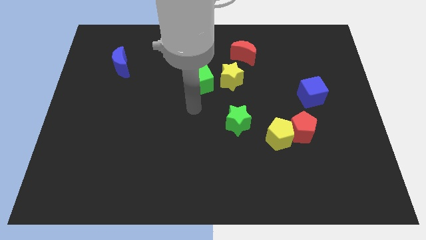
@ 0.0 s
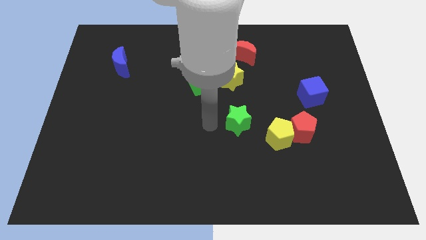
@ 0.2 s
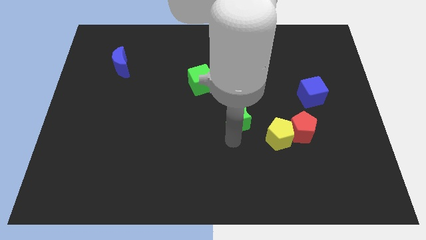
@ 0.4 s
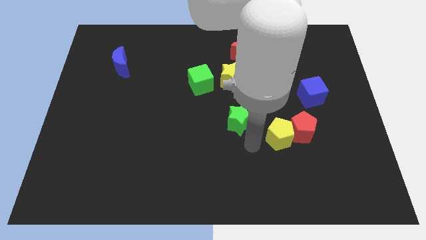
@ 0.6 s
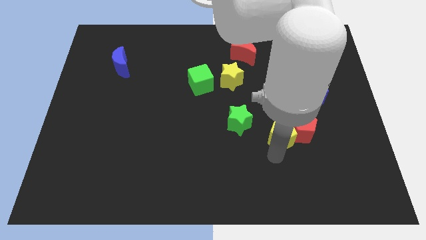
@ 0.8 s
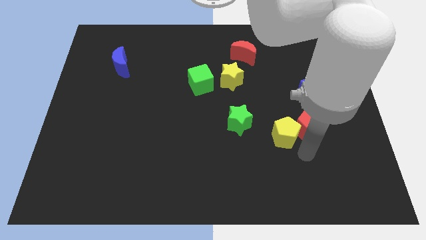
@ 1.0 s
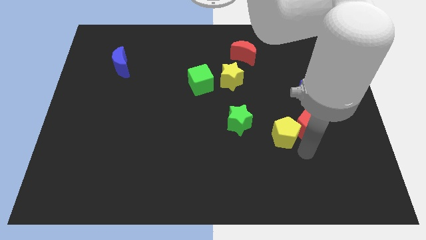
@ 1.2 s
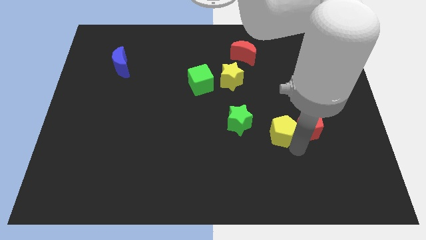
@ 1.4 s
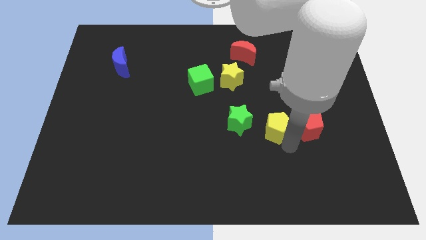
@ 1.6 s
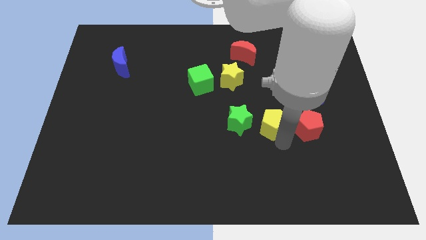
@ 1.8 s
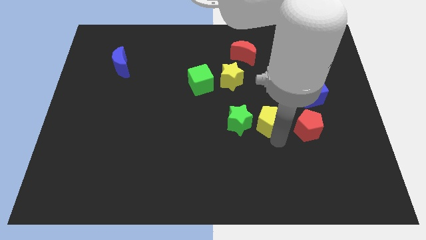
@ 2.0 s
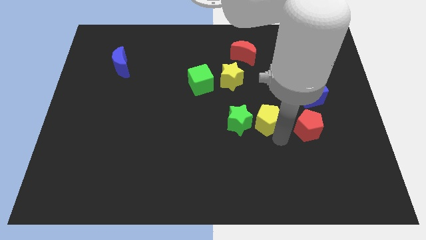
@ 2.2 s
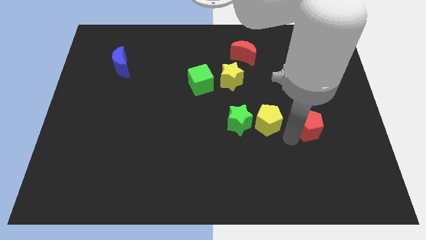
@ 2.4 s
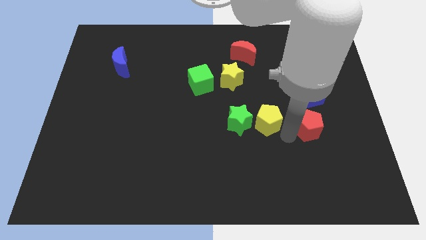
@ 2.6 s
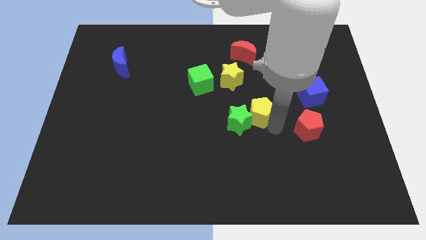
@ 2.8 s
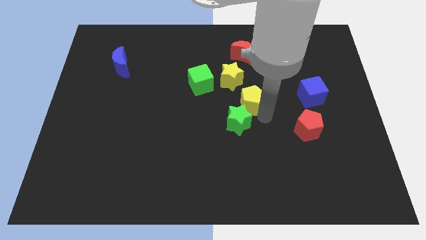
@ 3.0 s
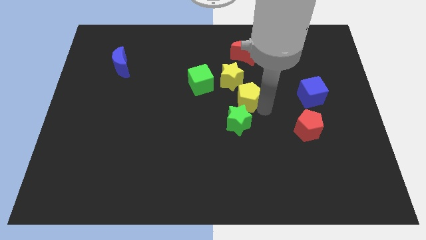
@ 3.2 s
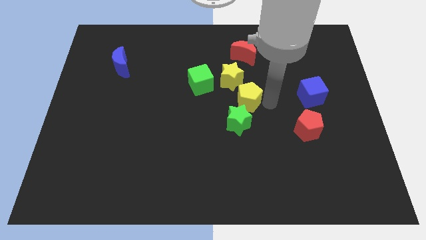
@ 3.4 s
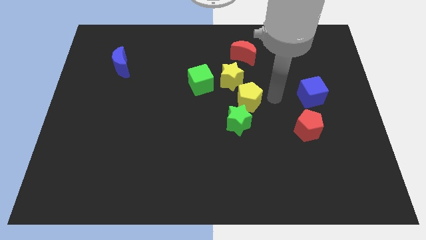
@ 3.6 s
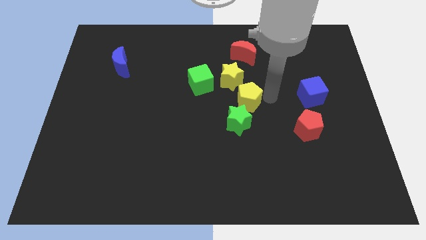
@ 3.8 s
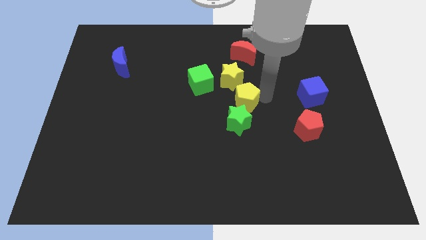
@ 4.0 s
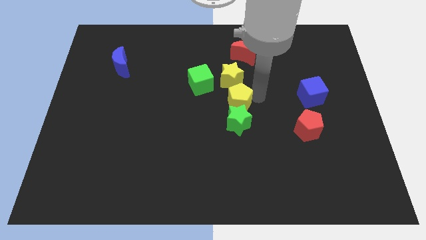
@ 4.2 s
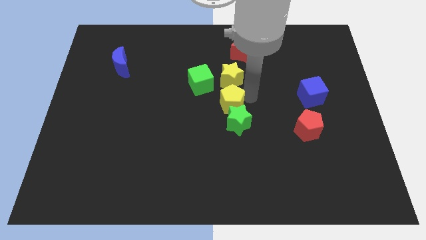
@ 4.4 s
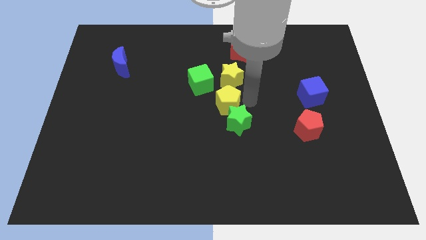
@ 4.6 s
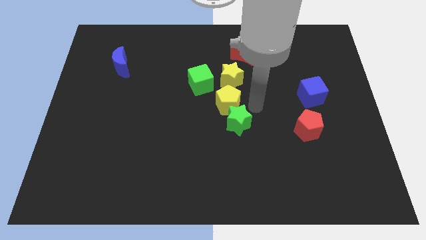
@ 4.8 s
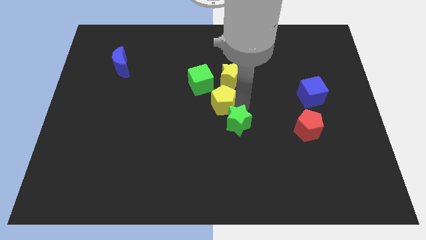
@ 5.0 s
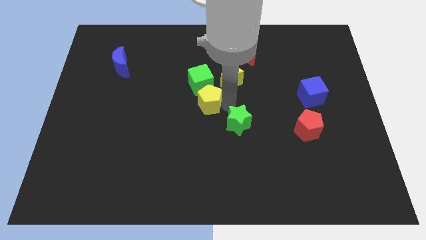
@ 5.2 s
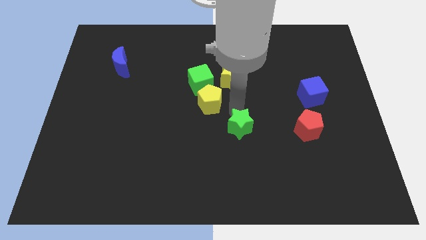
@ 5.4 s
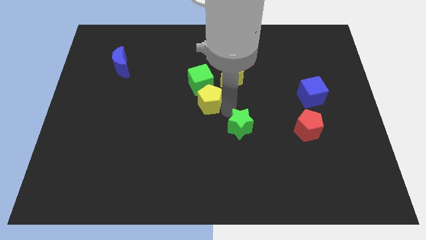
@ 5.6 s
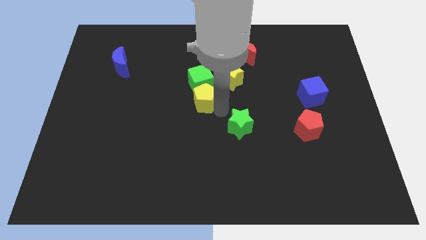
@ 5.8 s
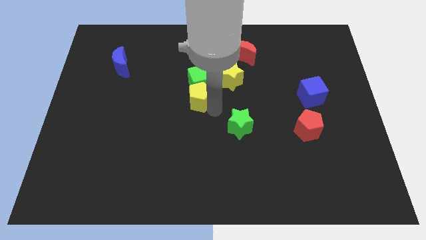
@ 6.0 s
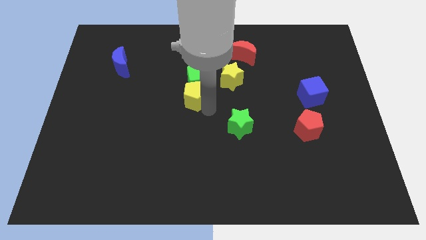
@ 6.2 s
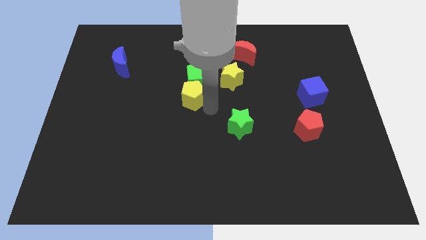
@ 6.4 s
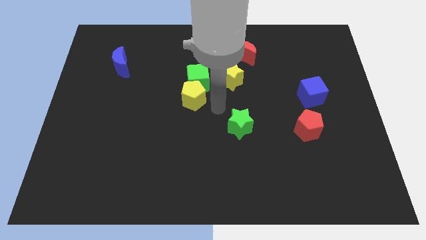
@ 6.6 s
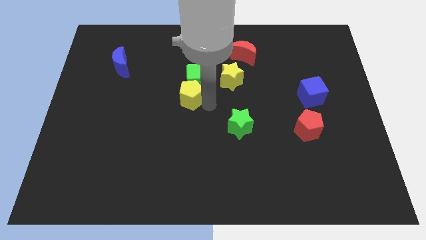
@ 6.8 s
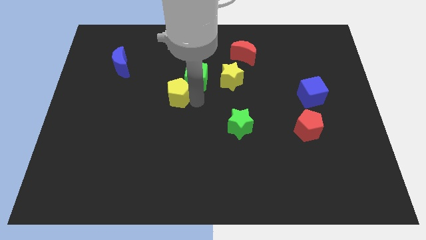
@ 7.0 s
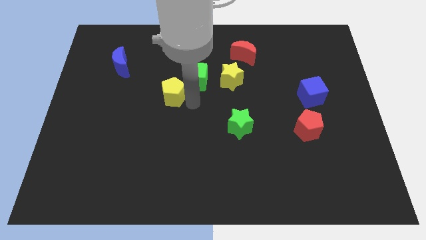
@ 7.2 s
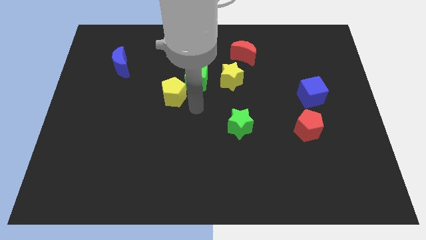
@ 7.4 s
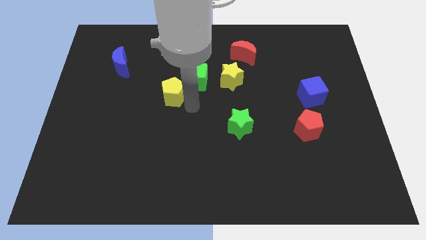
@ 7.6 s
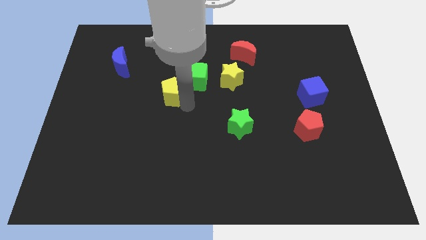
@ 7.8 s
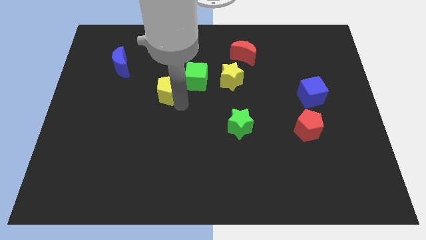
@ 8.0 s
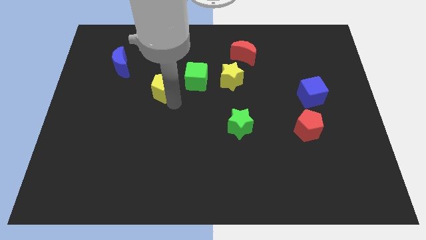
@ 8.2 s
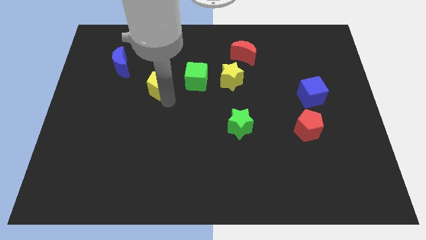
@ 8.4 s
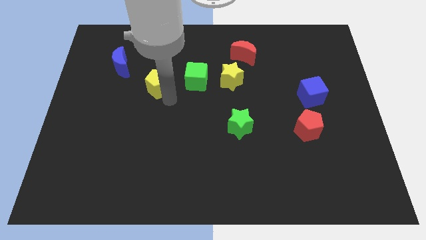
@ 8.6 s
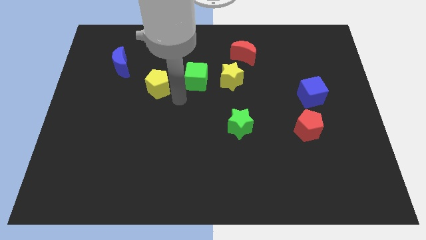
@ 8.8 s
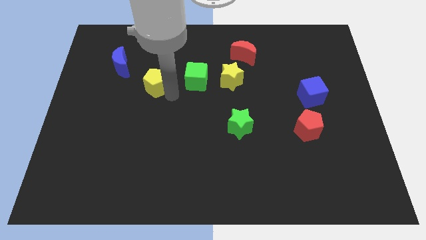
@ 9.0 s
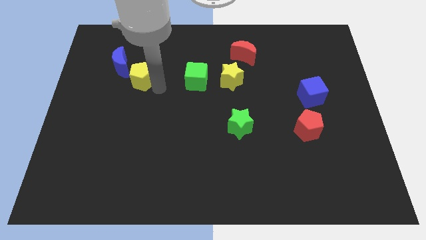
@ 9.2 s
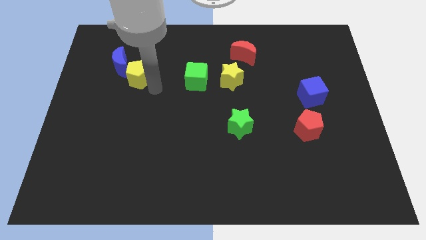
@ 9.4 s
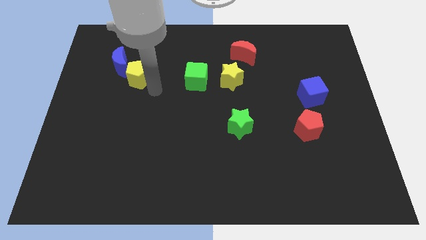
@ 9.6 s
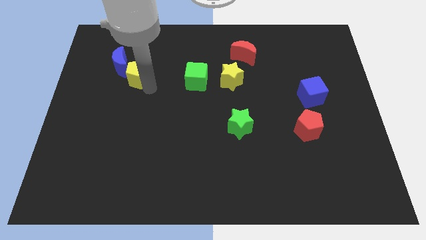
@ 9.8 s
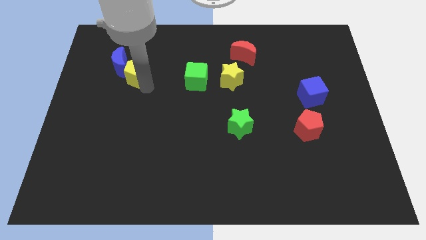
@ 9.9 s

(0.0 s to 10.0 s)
move the yellow pentagon close to the blue moon

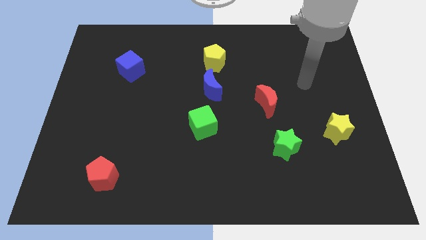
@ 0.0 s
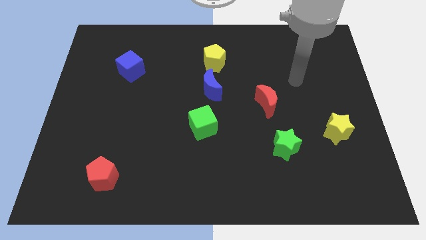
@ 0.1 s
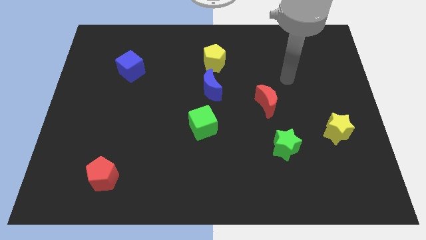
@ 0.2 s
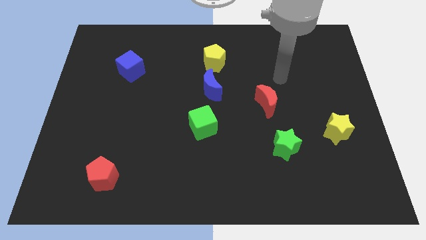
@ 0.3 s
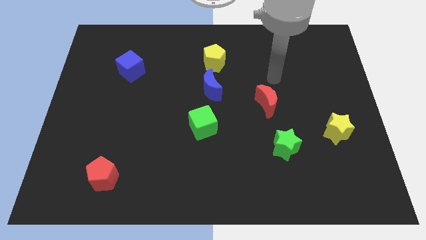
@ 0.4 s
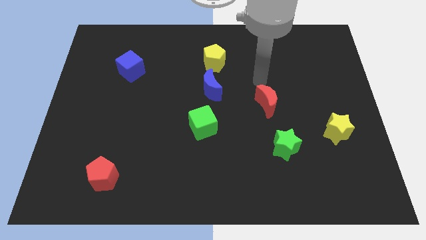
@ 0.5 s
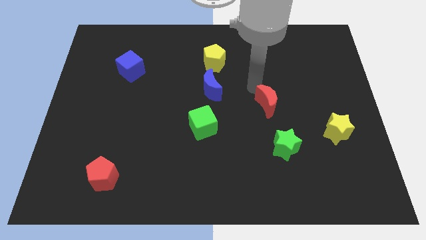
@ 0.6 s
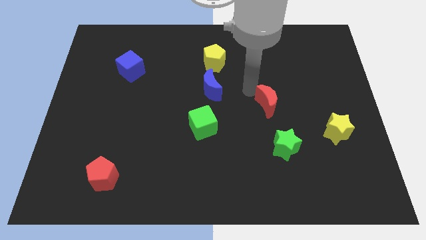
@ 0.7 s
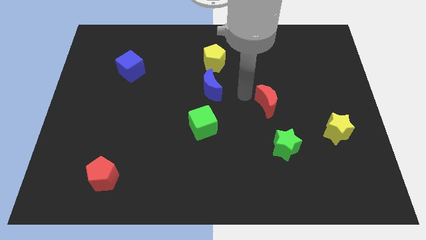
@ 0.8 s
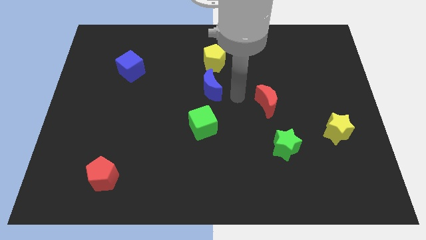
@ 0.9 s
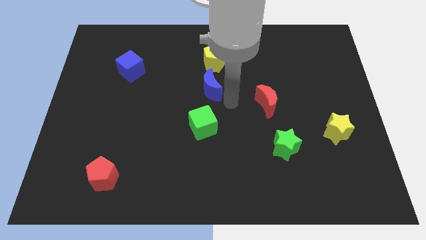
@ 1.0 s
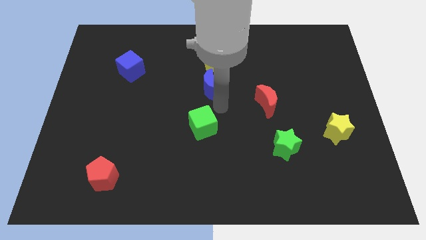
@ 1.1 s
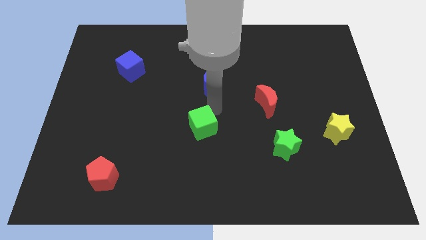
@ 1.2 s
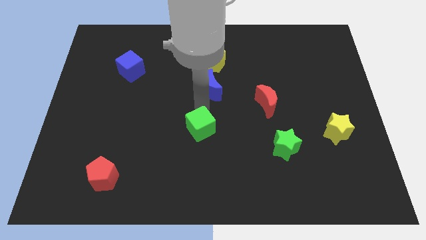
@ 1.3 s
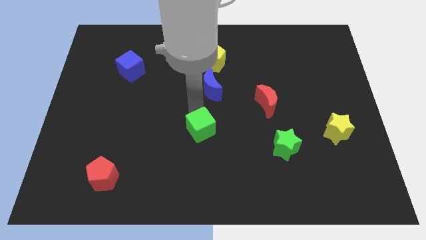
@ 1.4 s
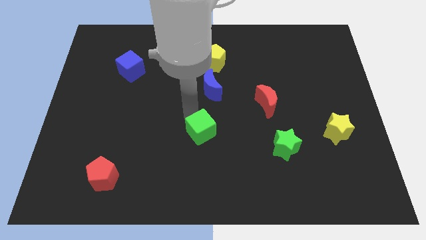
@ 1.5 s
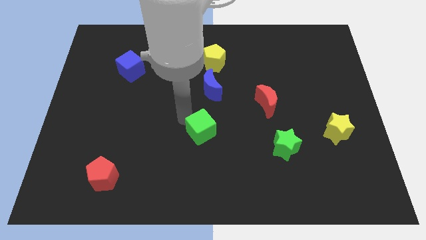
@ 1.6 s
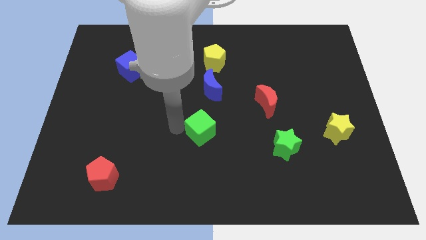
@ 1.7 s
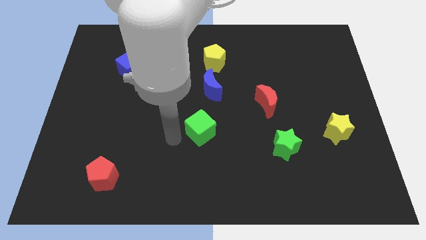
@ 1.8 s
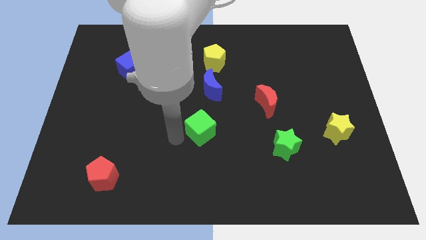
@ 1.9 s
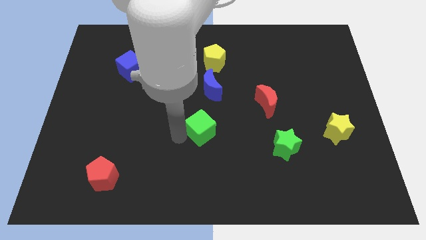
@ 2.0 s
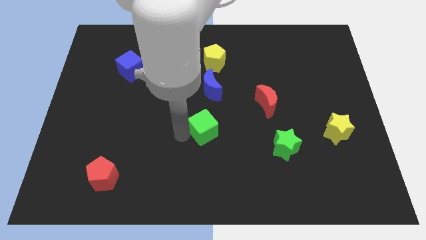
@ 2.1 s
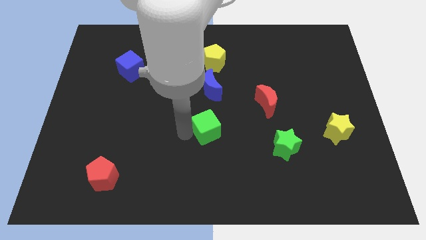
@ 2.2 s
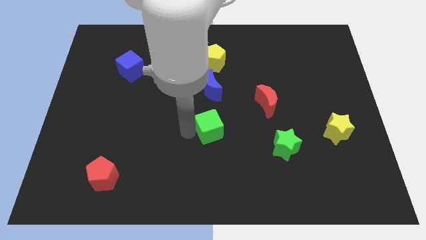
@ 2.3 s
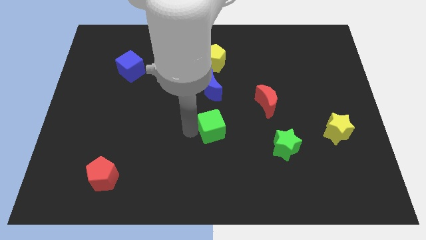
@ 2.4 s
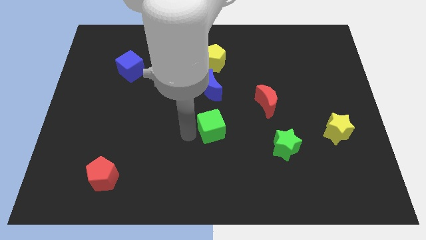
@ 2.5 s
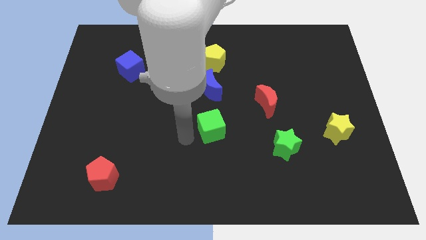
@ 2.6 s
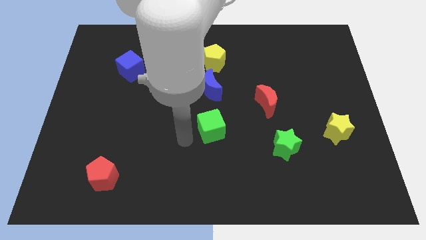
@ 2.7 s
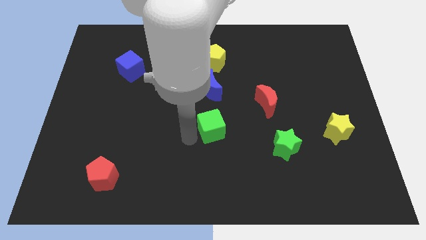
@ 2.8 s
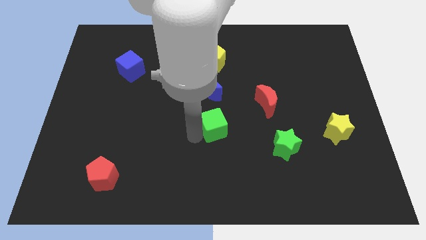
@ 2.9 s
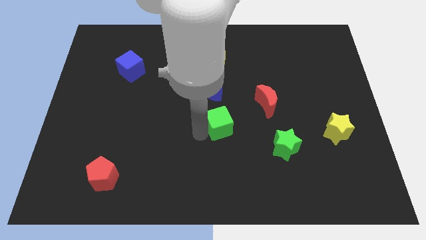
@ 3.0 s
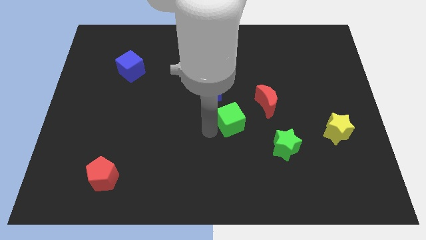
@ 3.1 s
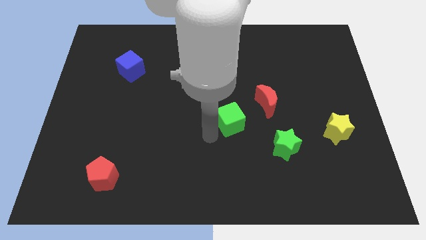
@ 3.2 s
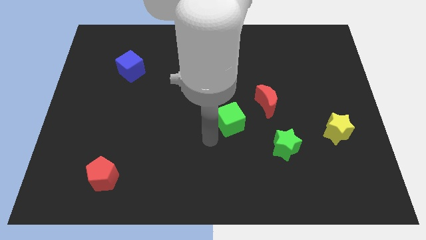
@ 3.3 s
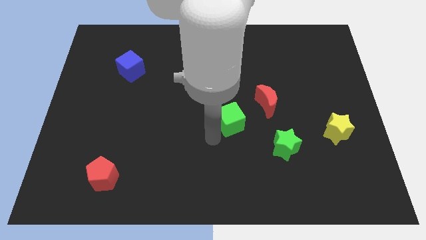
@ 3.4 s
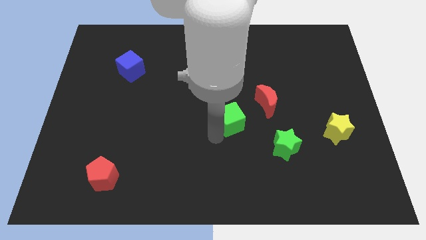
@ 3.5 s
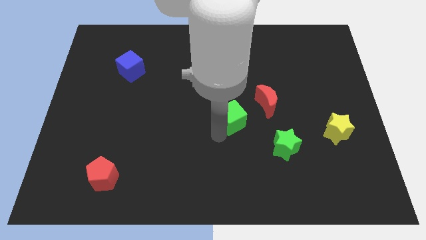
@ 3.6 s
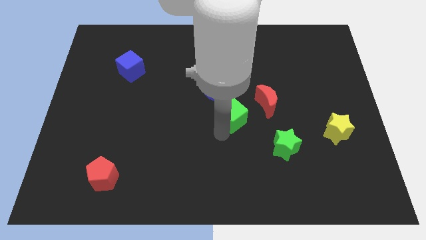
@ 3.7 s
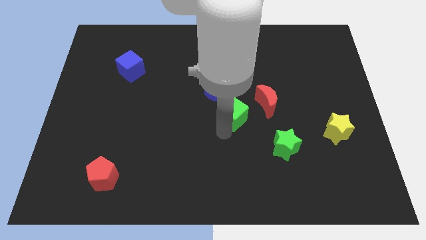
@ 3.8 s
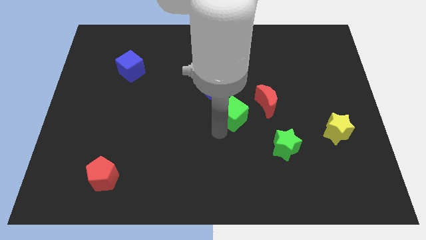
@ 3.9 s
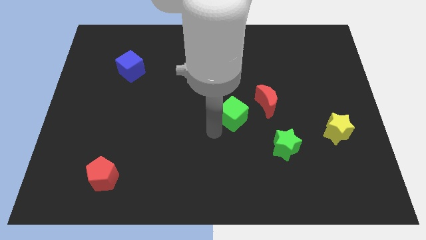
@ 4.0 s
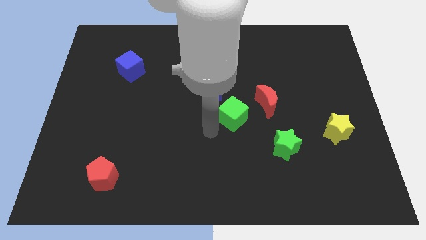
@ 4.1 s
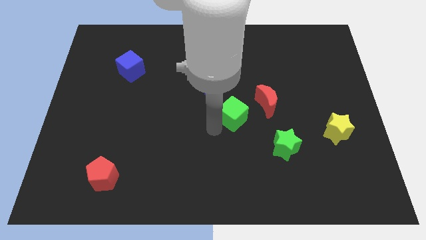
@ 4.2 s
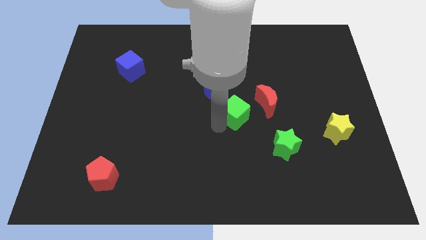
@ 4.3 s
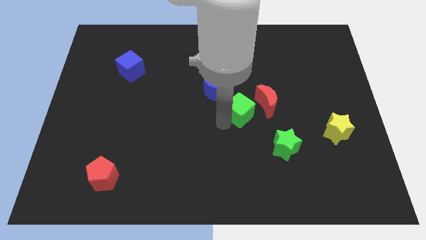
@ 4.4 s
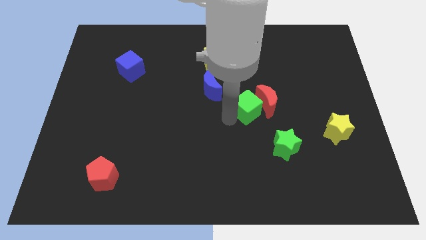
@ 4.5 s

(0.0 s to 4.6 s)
push the green cube next to the red moon
